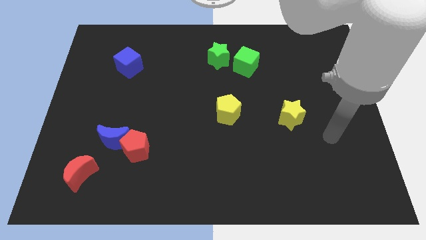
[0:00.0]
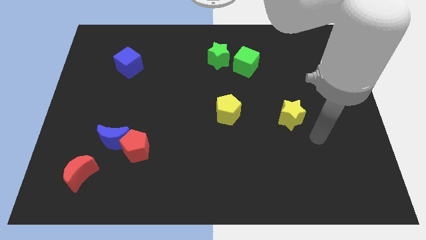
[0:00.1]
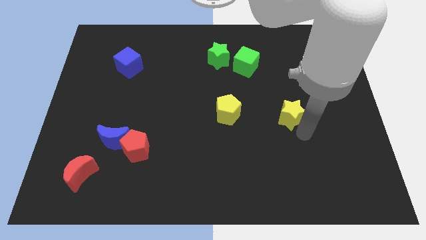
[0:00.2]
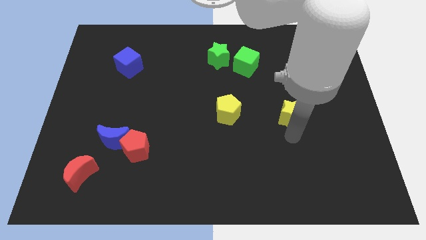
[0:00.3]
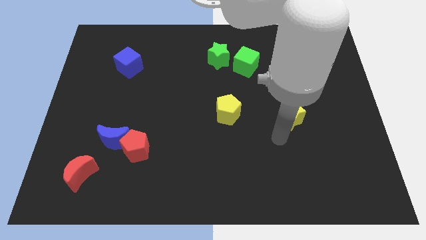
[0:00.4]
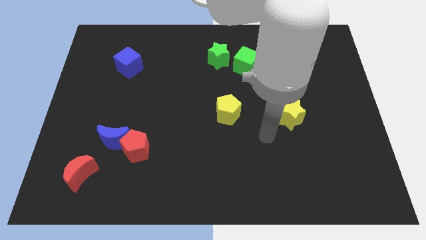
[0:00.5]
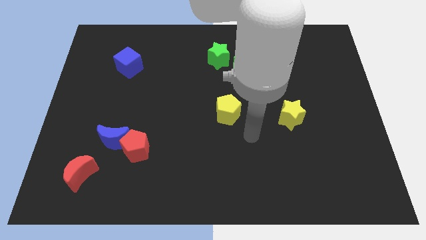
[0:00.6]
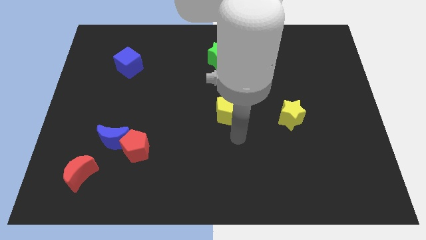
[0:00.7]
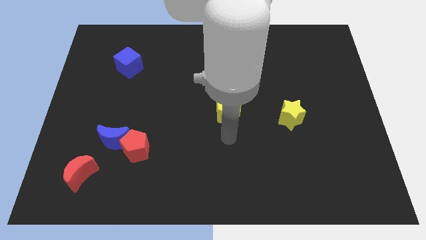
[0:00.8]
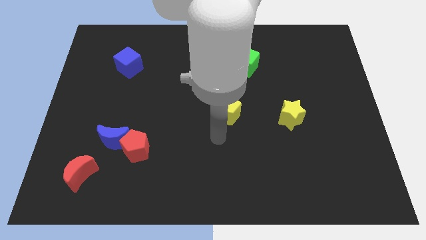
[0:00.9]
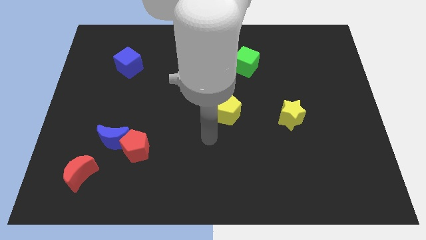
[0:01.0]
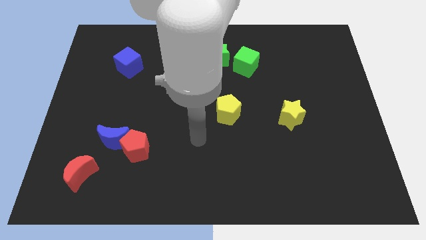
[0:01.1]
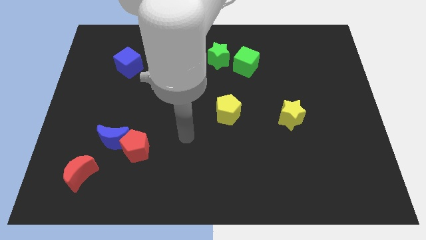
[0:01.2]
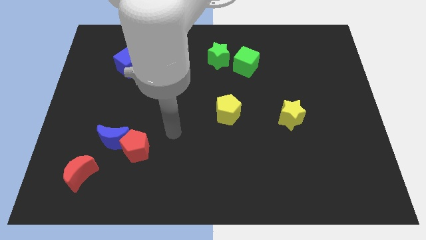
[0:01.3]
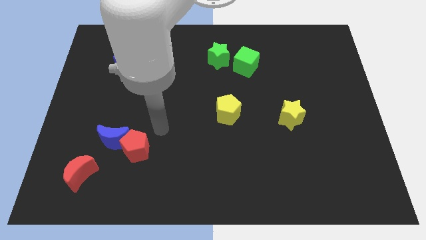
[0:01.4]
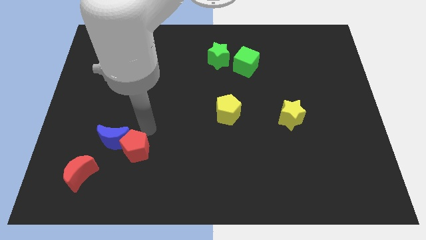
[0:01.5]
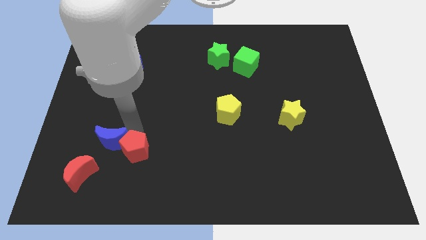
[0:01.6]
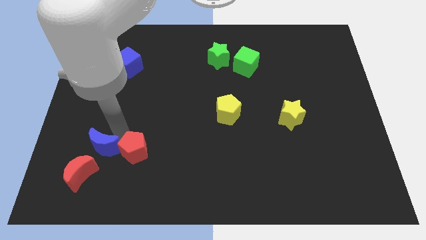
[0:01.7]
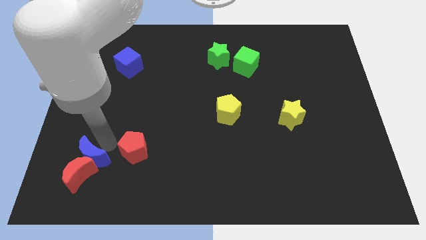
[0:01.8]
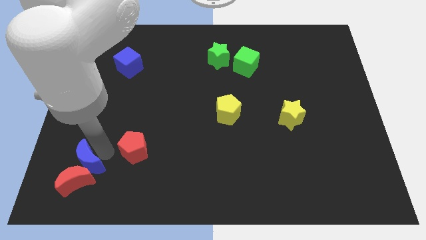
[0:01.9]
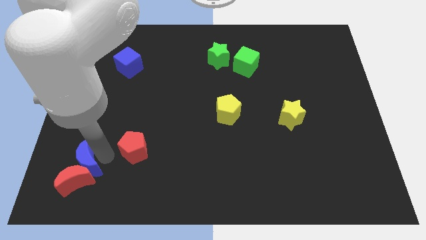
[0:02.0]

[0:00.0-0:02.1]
separate the red pentagon from the blue moon

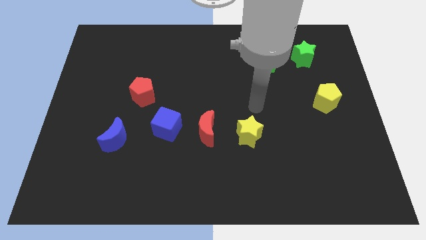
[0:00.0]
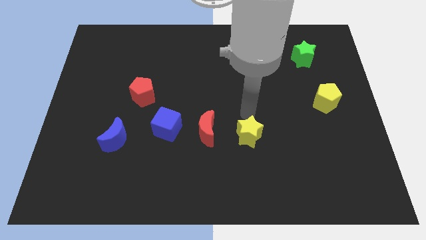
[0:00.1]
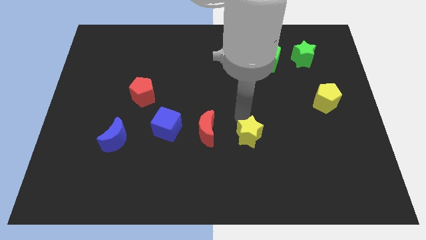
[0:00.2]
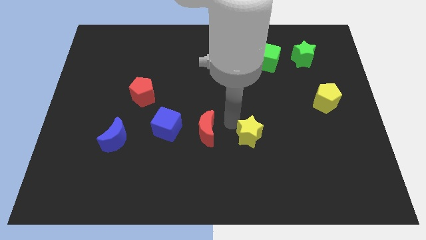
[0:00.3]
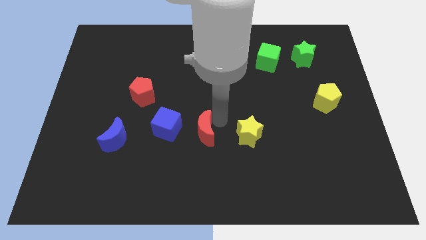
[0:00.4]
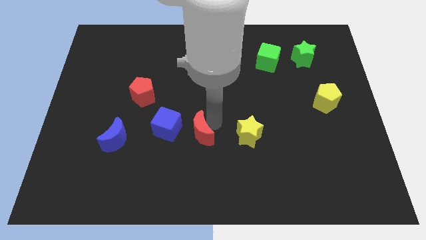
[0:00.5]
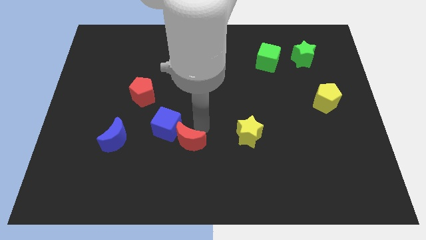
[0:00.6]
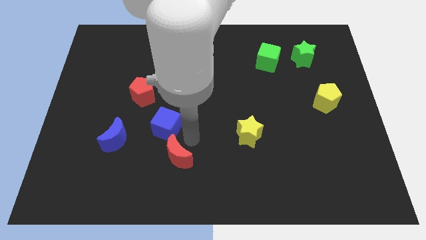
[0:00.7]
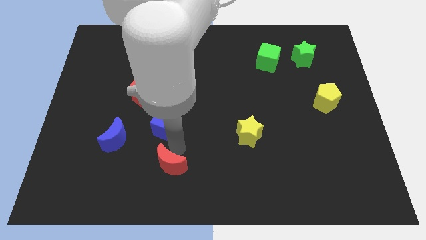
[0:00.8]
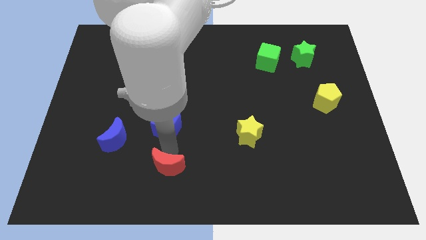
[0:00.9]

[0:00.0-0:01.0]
move the blue cube away from the red moon

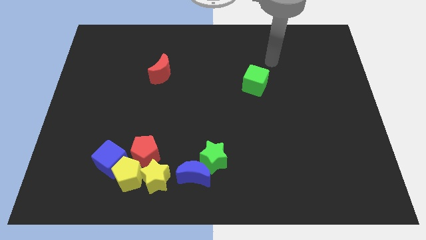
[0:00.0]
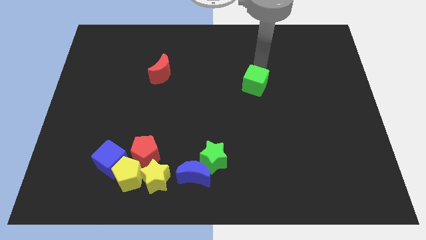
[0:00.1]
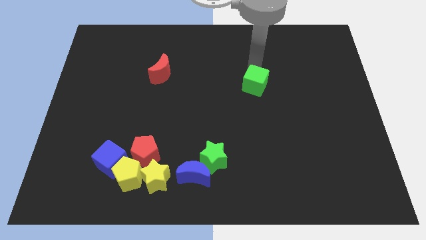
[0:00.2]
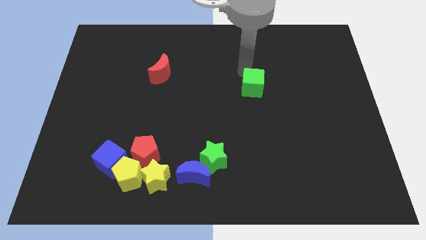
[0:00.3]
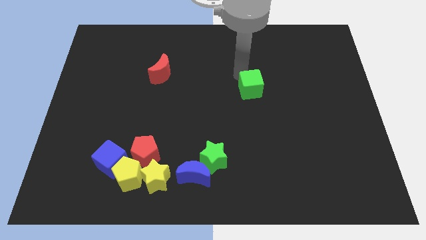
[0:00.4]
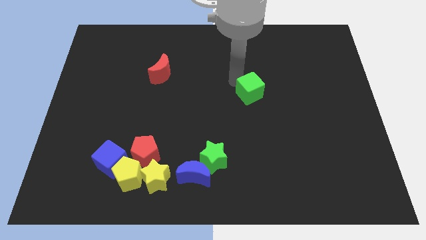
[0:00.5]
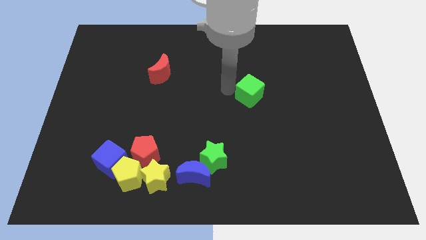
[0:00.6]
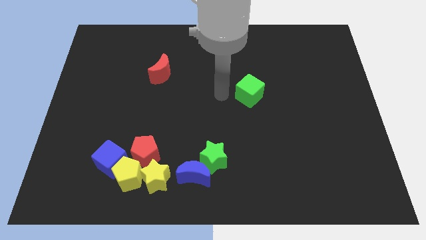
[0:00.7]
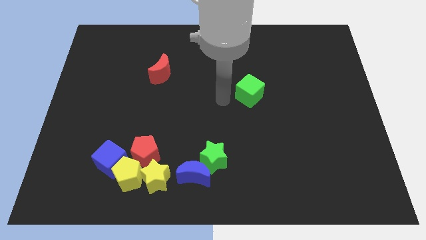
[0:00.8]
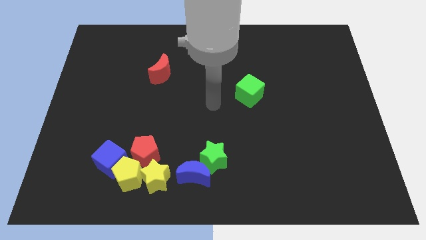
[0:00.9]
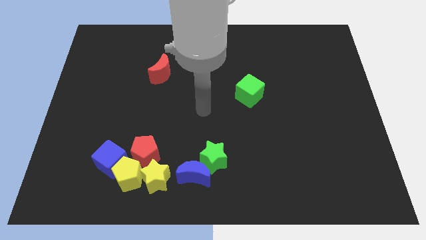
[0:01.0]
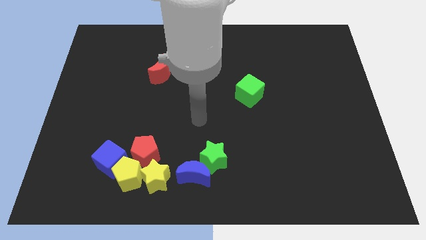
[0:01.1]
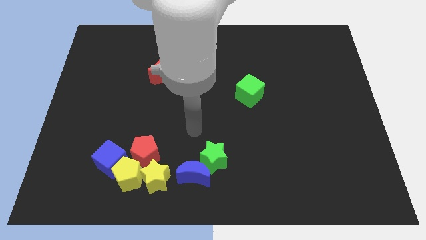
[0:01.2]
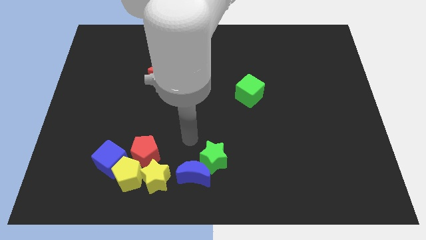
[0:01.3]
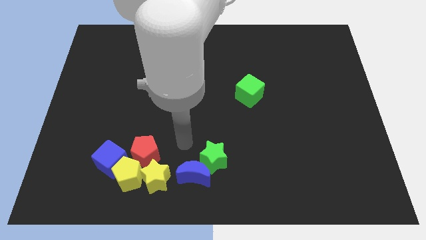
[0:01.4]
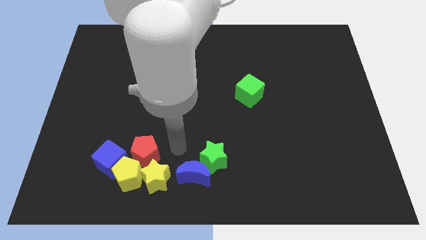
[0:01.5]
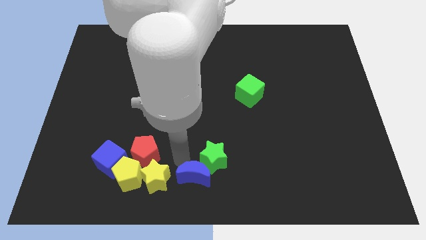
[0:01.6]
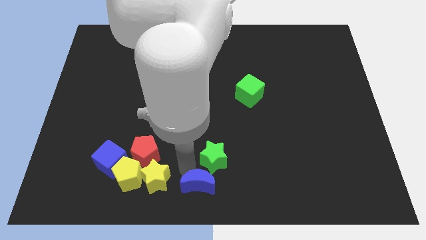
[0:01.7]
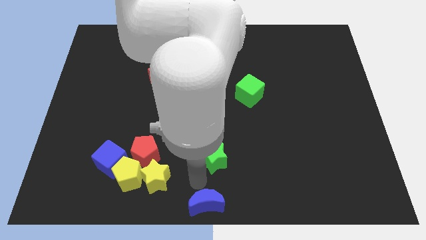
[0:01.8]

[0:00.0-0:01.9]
pull the green star apart from the blue moon

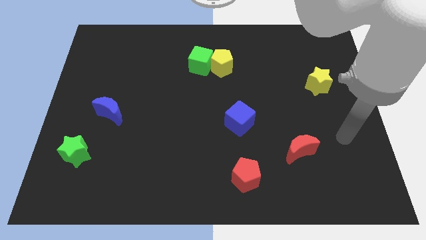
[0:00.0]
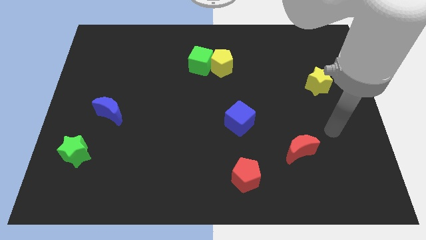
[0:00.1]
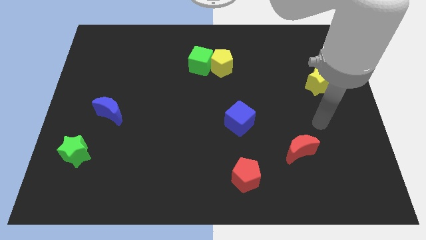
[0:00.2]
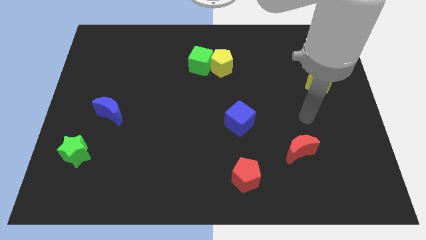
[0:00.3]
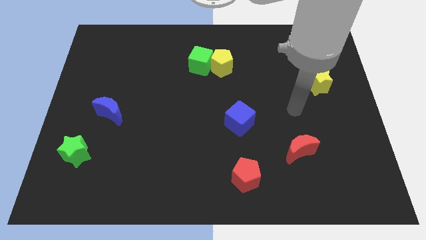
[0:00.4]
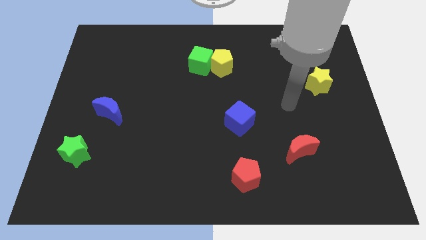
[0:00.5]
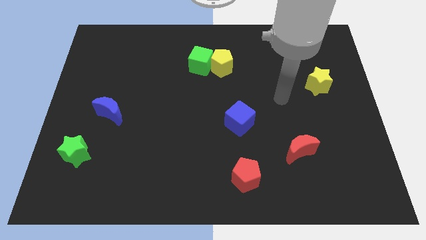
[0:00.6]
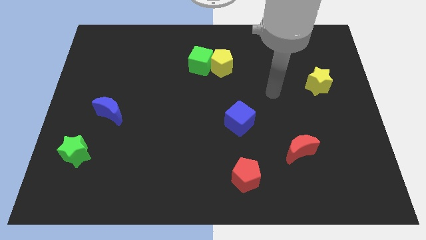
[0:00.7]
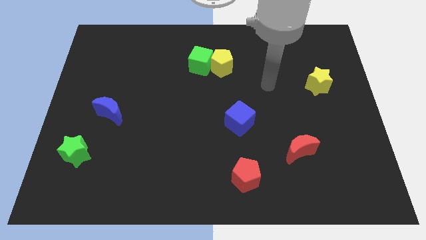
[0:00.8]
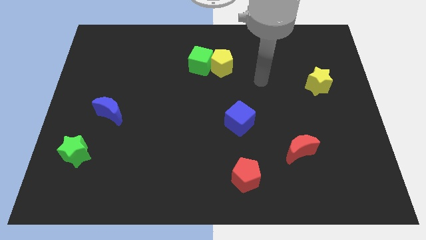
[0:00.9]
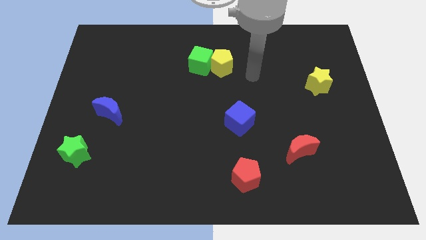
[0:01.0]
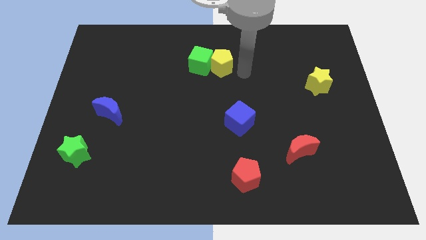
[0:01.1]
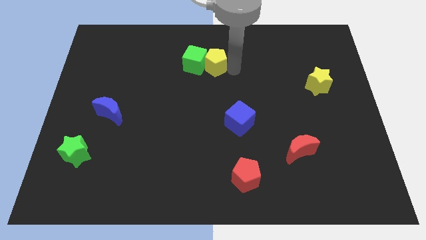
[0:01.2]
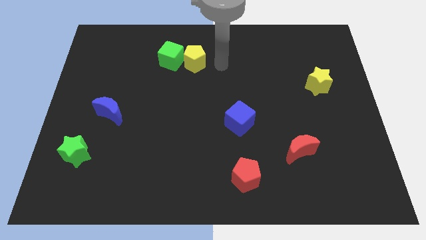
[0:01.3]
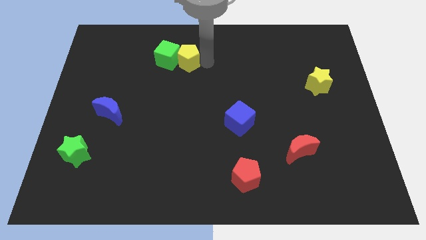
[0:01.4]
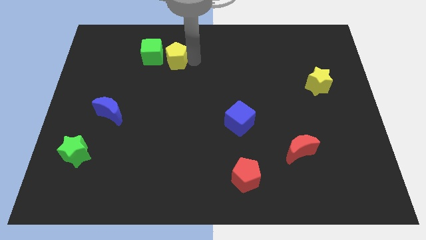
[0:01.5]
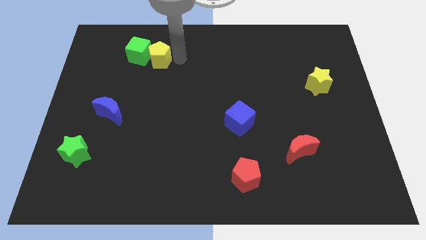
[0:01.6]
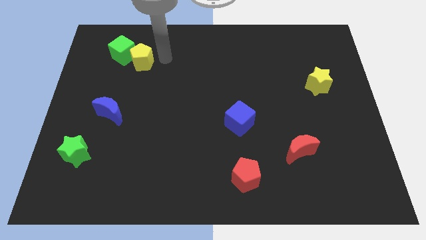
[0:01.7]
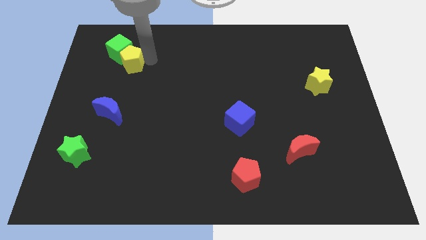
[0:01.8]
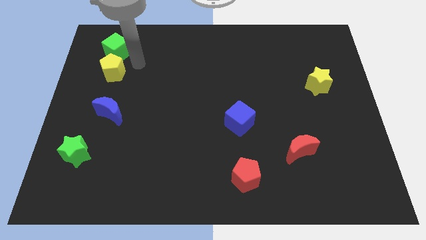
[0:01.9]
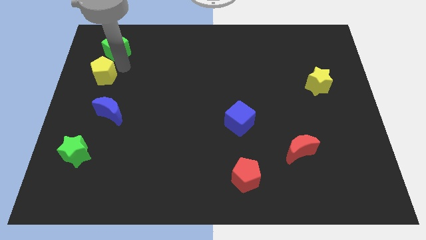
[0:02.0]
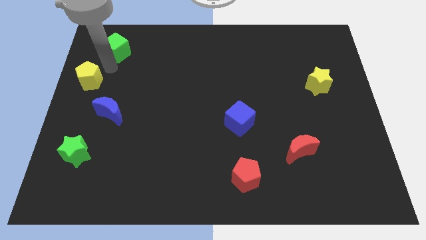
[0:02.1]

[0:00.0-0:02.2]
pull the green cube apart from the yellow pentagon

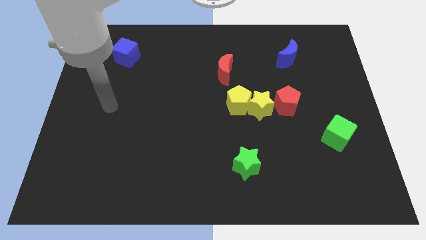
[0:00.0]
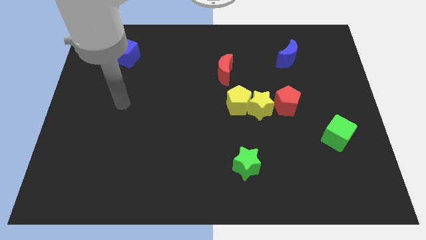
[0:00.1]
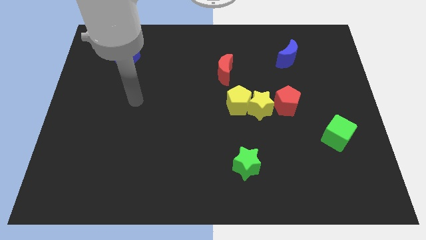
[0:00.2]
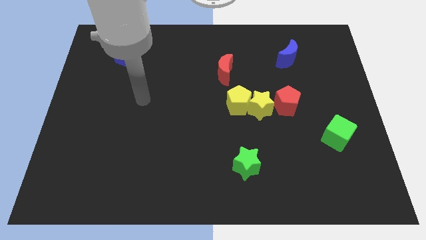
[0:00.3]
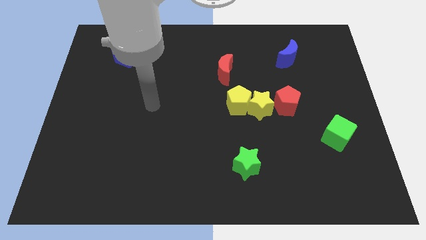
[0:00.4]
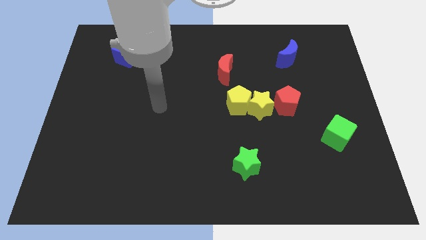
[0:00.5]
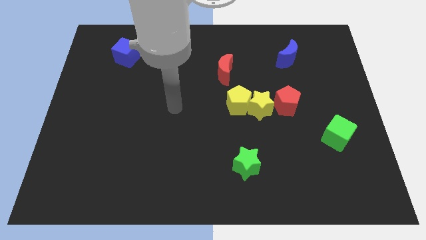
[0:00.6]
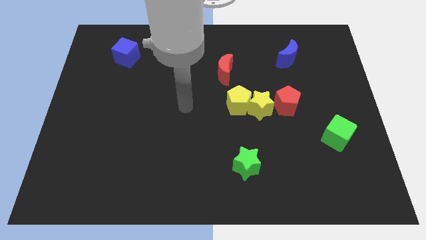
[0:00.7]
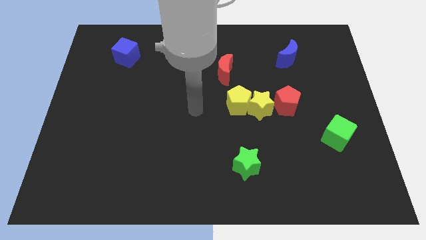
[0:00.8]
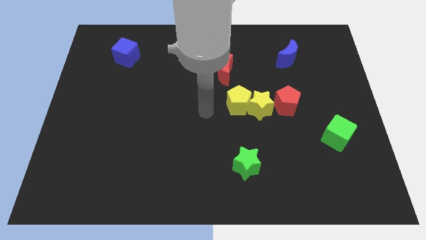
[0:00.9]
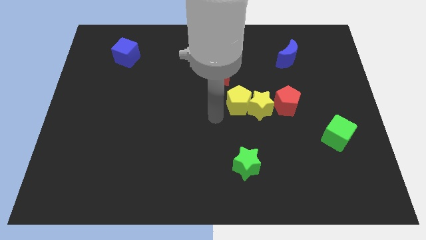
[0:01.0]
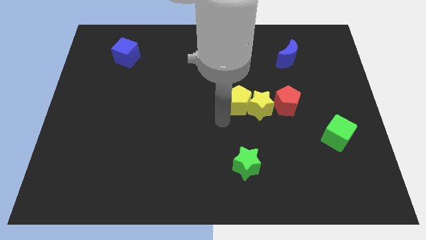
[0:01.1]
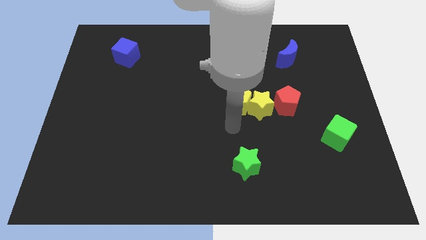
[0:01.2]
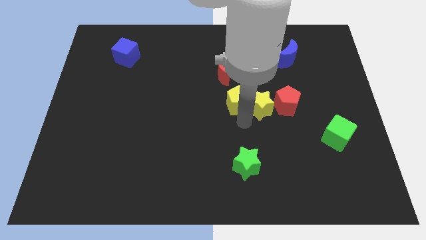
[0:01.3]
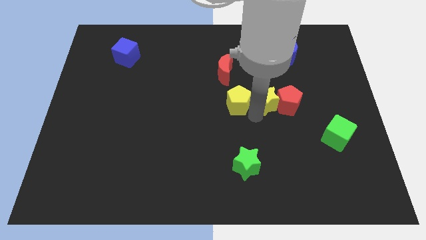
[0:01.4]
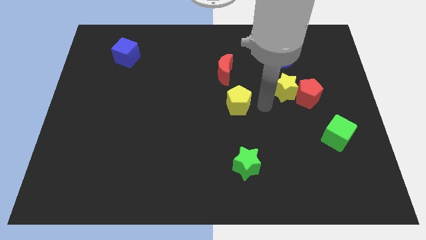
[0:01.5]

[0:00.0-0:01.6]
pull the yellow pentagon apart from the yellow star

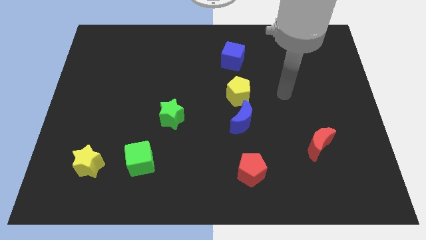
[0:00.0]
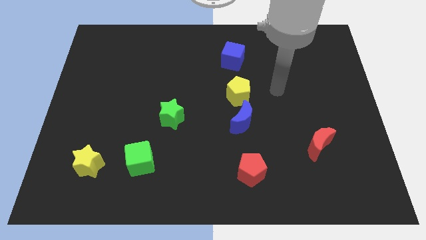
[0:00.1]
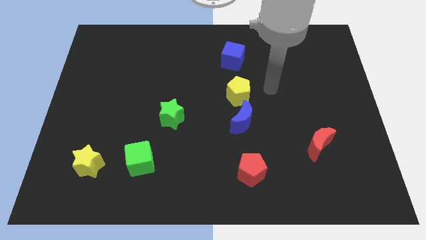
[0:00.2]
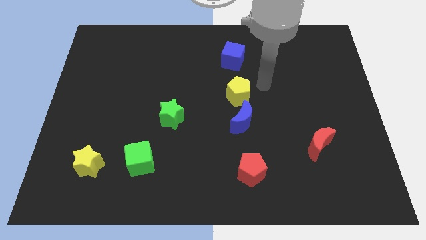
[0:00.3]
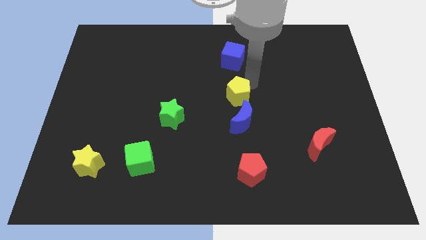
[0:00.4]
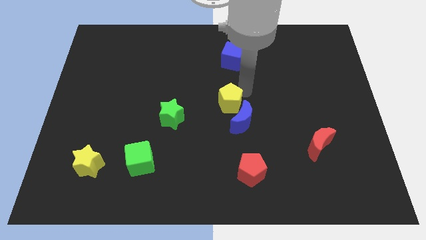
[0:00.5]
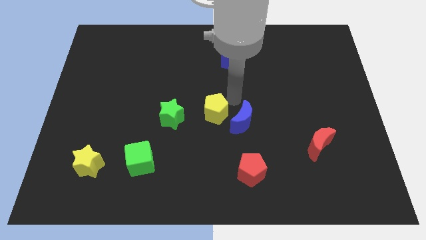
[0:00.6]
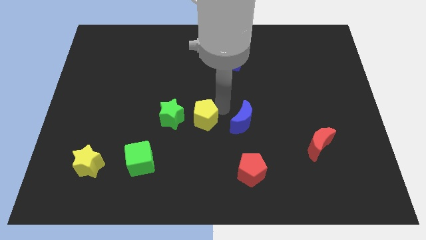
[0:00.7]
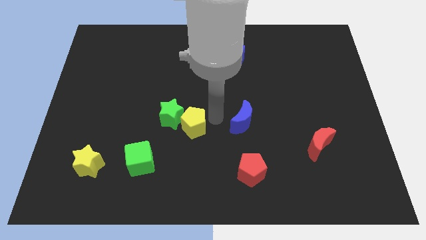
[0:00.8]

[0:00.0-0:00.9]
separate the blue moon from the yellow pentagon
